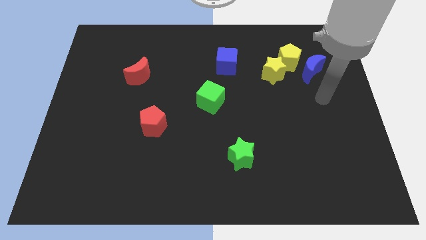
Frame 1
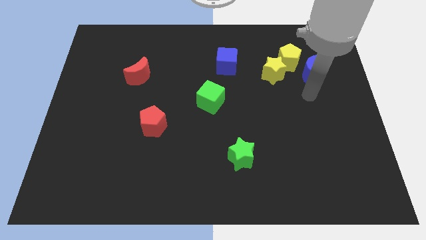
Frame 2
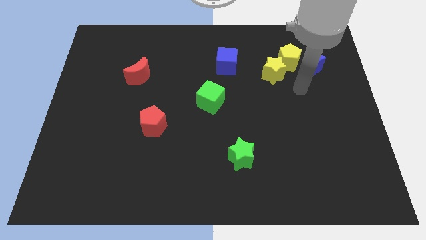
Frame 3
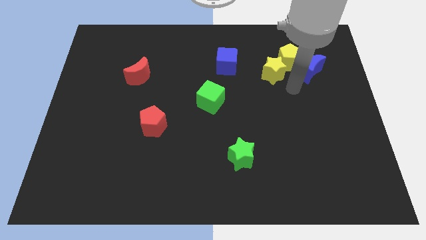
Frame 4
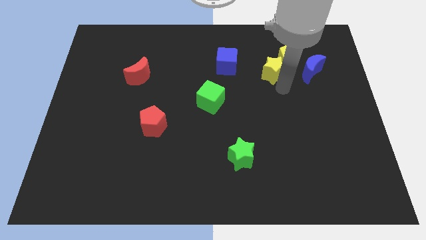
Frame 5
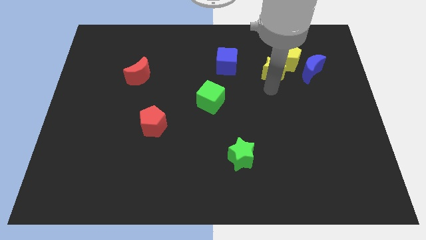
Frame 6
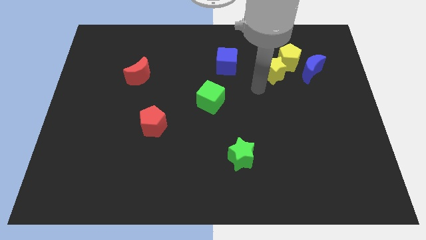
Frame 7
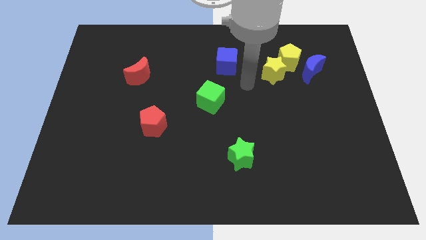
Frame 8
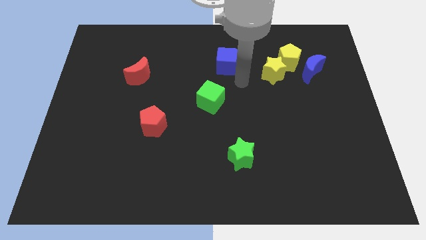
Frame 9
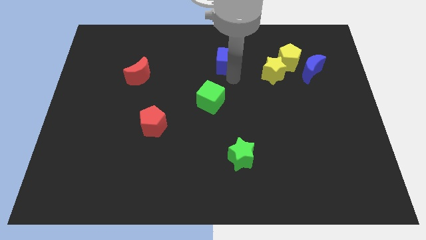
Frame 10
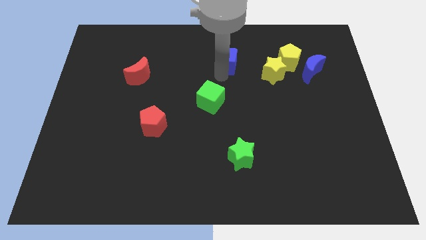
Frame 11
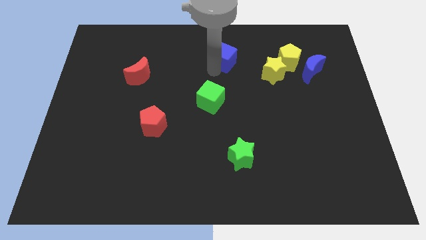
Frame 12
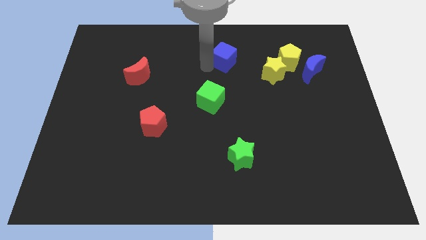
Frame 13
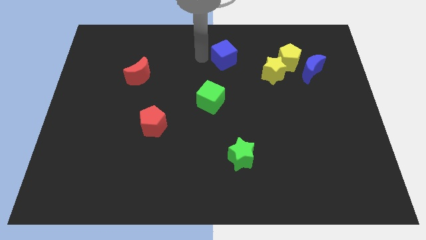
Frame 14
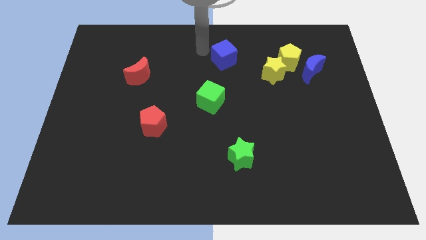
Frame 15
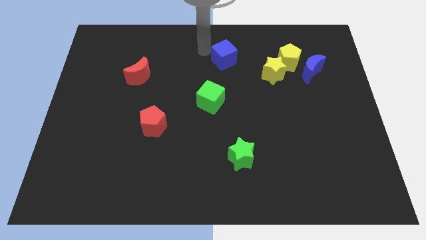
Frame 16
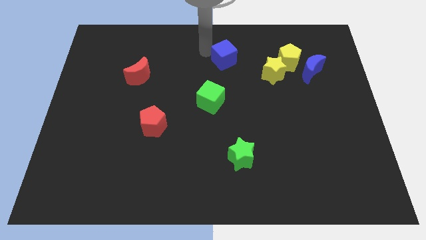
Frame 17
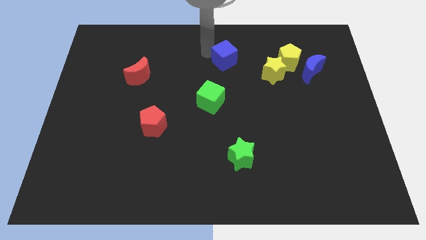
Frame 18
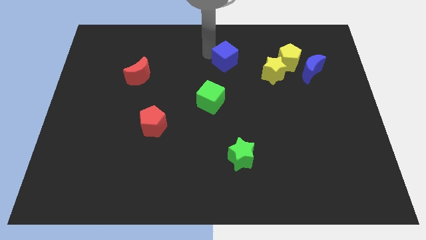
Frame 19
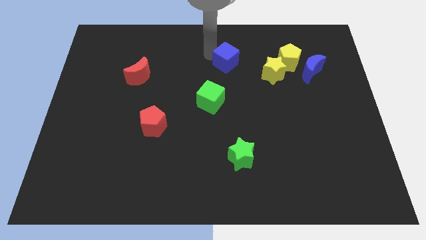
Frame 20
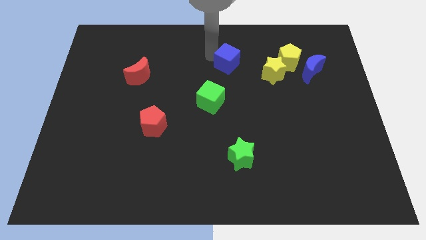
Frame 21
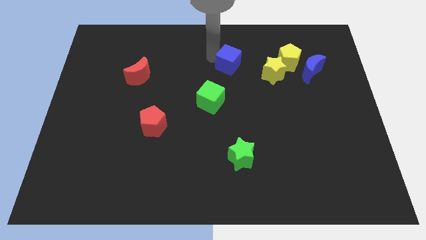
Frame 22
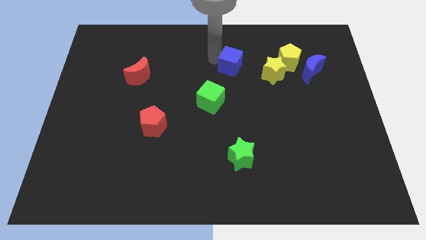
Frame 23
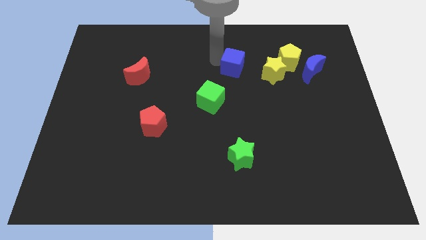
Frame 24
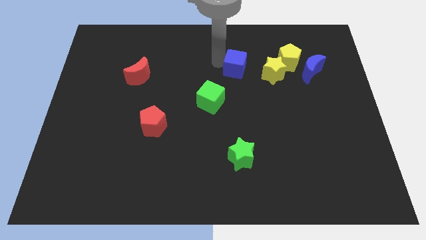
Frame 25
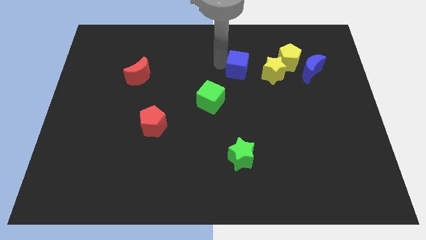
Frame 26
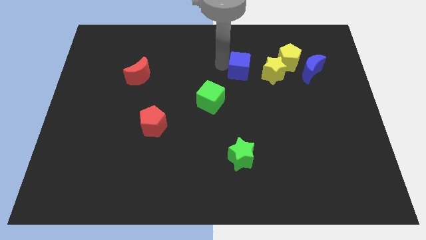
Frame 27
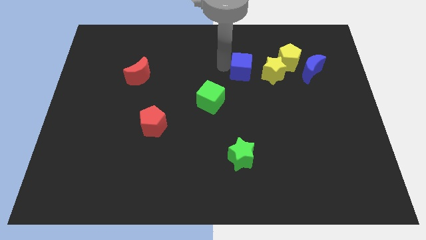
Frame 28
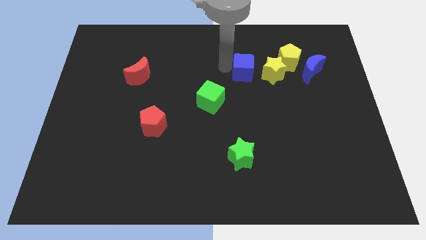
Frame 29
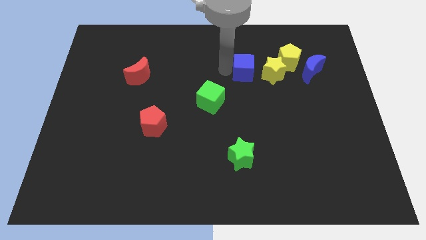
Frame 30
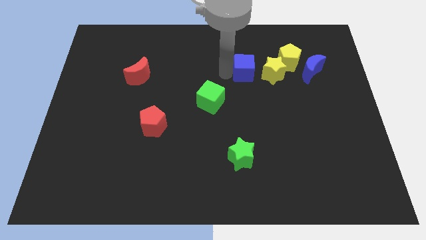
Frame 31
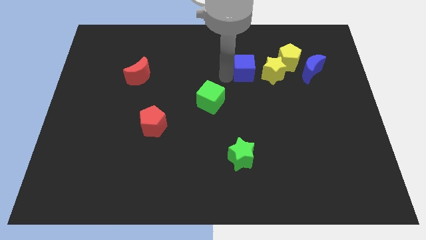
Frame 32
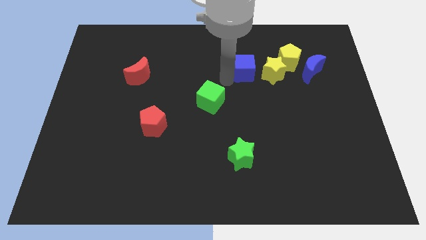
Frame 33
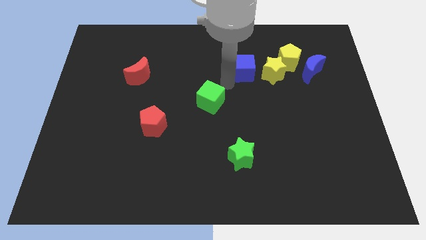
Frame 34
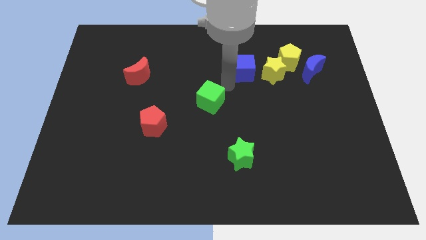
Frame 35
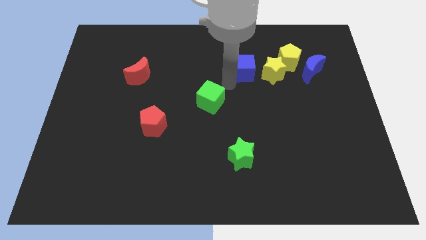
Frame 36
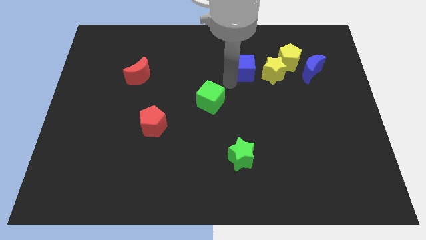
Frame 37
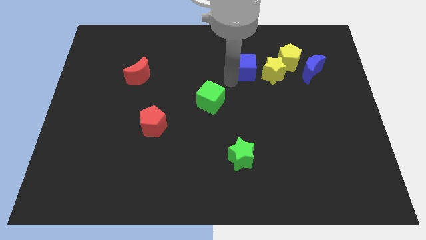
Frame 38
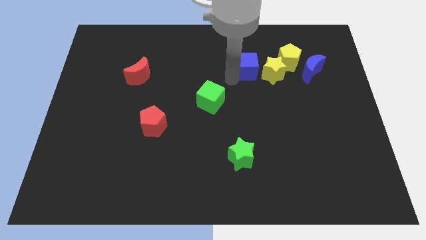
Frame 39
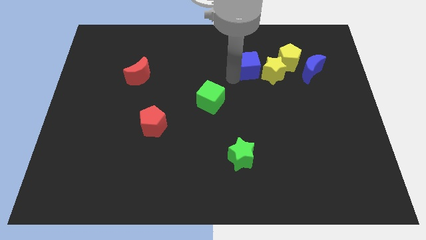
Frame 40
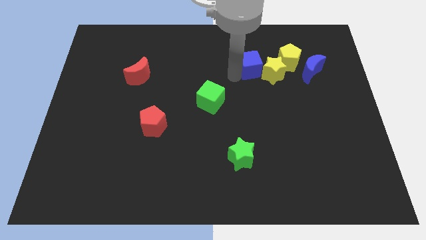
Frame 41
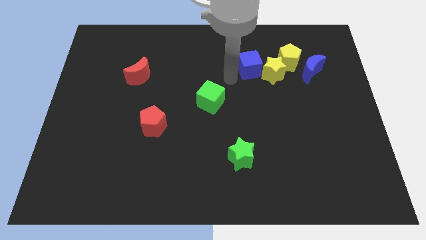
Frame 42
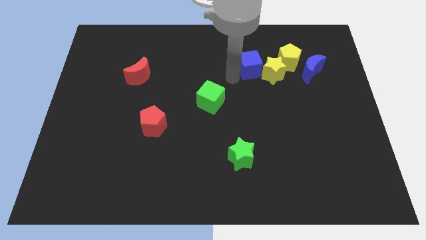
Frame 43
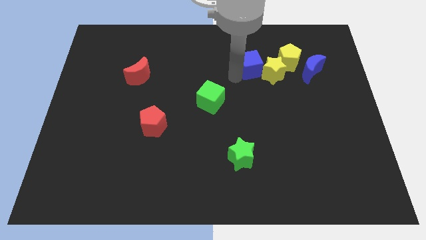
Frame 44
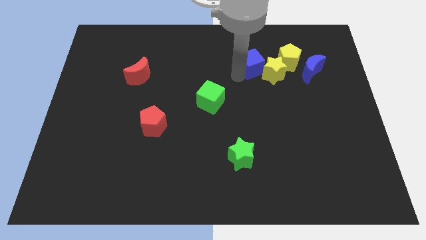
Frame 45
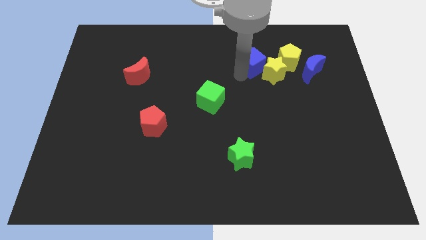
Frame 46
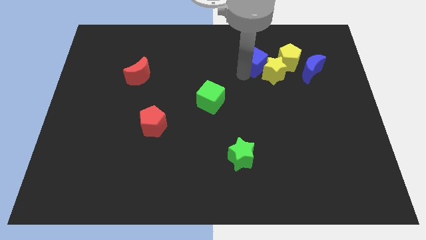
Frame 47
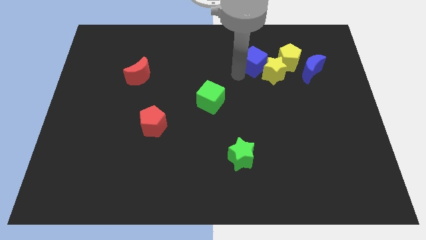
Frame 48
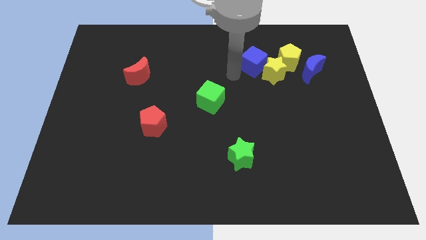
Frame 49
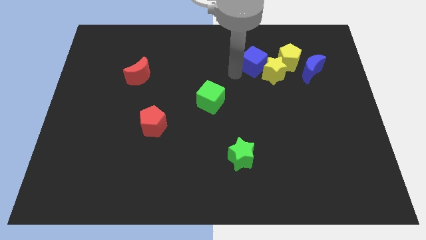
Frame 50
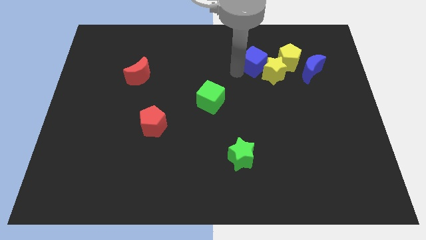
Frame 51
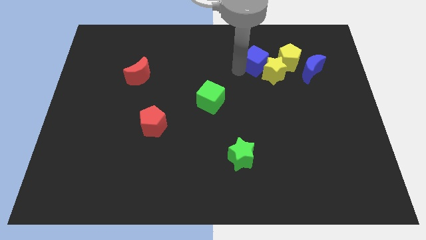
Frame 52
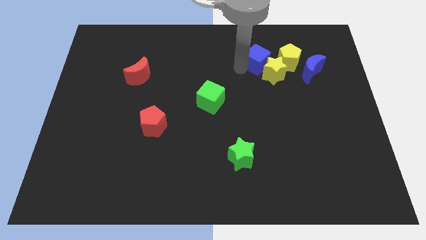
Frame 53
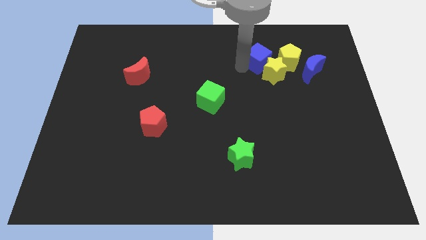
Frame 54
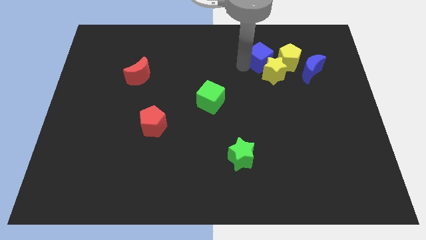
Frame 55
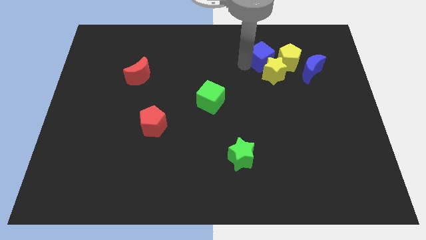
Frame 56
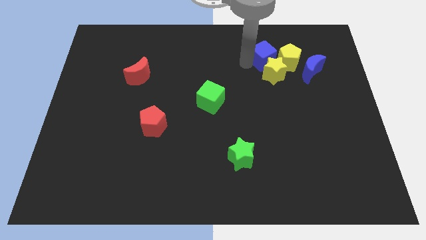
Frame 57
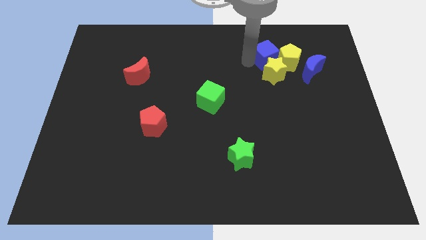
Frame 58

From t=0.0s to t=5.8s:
slide the blue cube close to the yellow pentagon

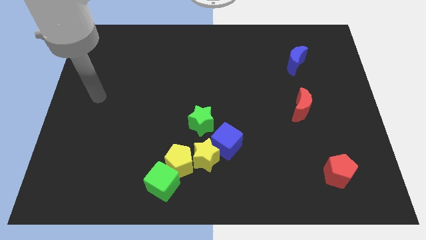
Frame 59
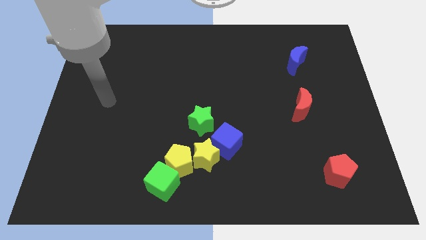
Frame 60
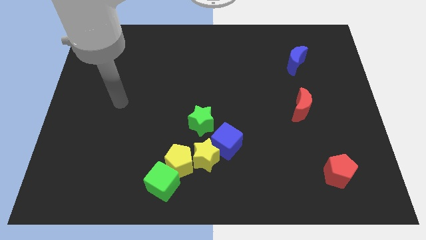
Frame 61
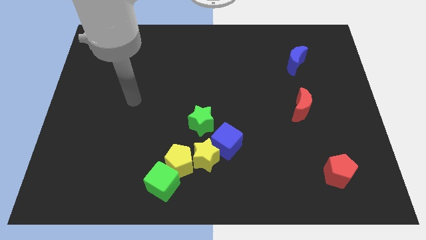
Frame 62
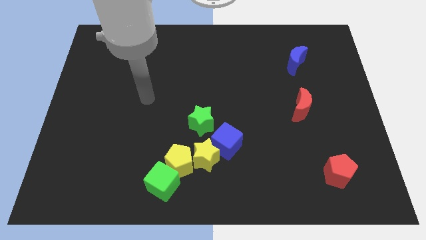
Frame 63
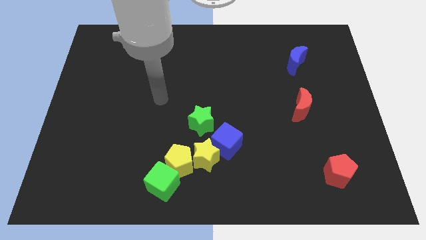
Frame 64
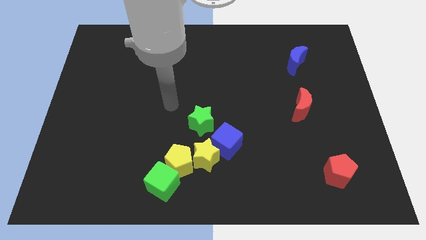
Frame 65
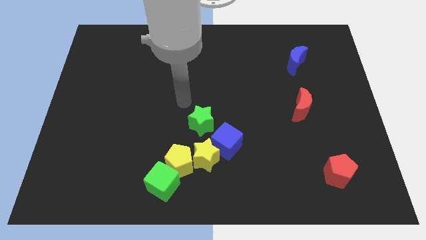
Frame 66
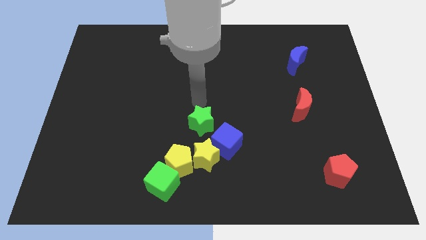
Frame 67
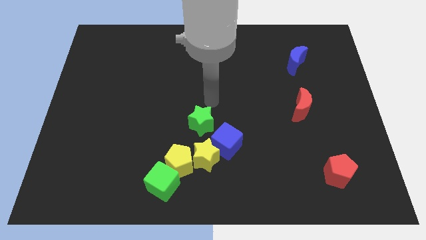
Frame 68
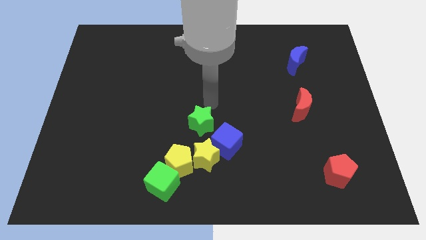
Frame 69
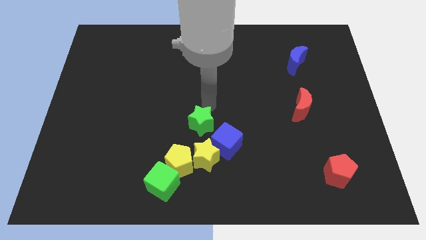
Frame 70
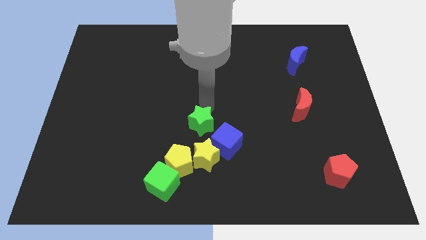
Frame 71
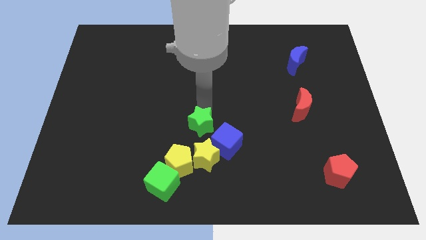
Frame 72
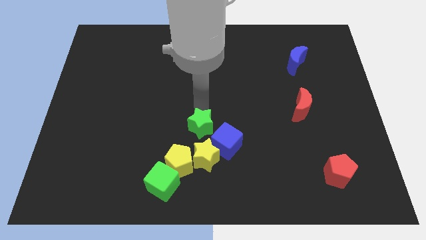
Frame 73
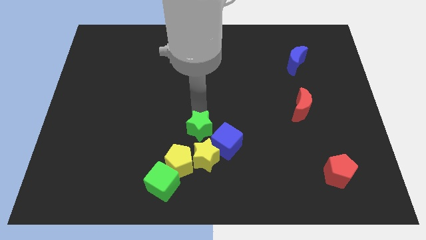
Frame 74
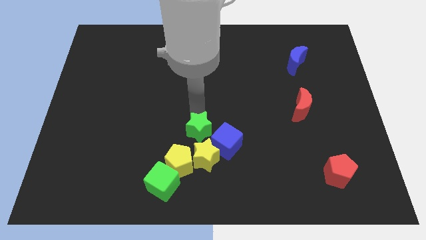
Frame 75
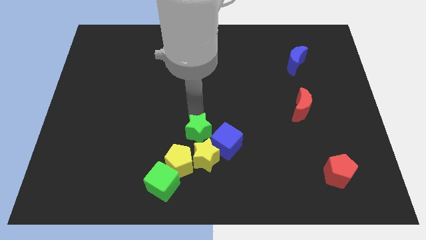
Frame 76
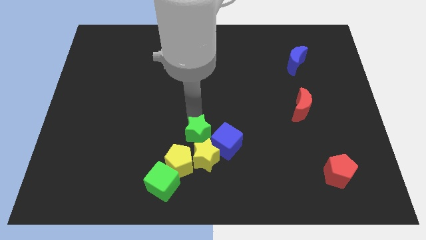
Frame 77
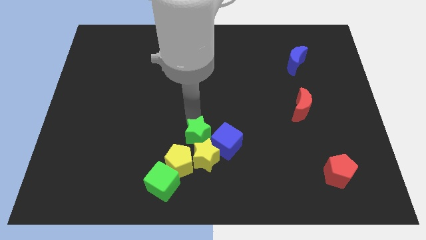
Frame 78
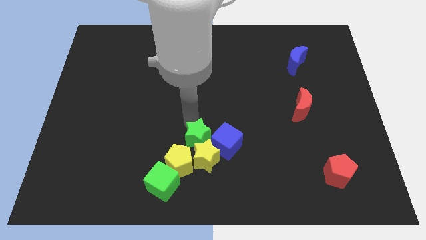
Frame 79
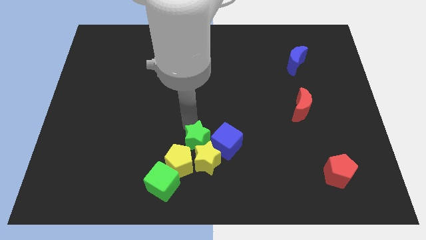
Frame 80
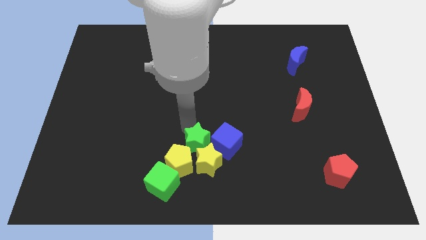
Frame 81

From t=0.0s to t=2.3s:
put the green star to the yellow pentagon
